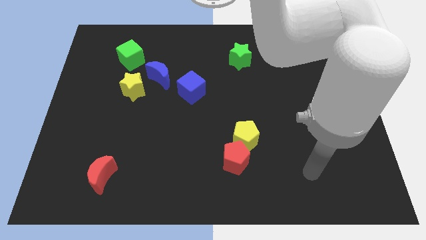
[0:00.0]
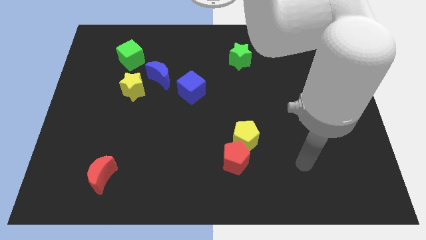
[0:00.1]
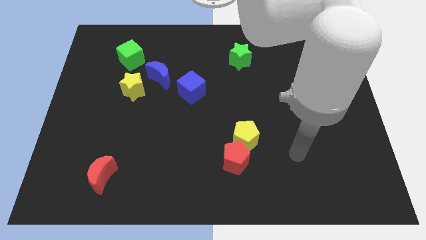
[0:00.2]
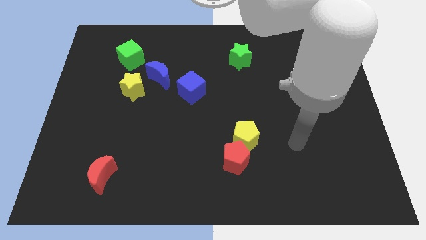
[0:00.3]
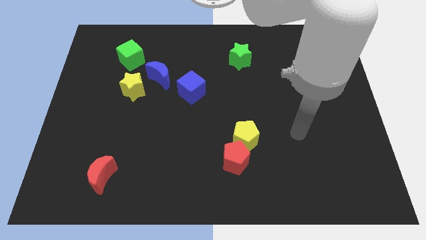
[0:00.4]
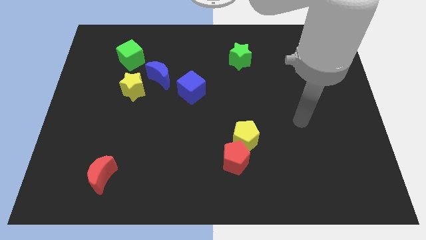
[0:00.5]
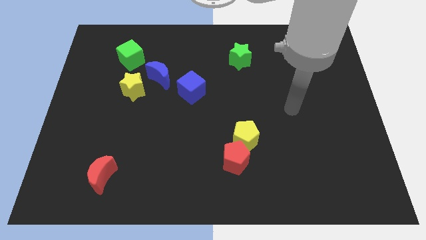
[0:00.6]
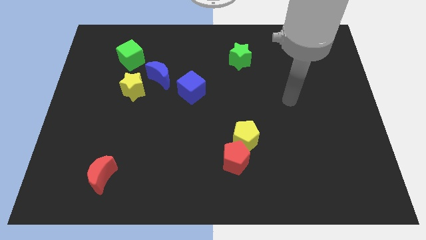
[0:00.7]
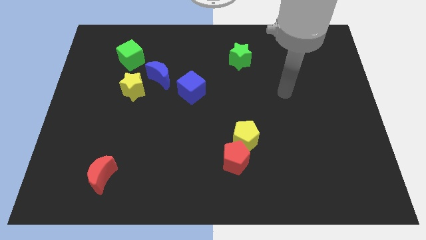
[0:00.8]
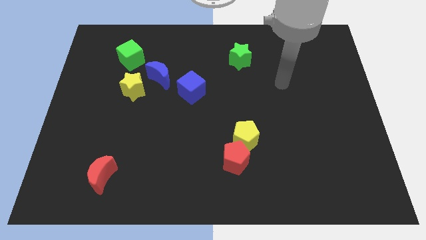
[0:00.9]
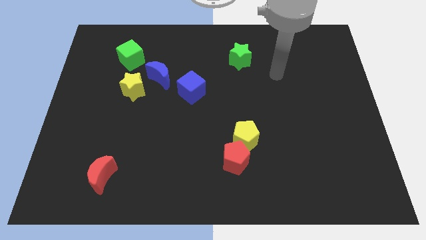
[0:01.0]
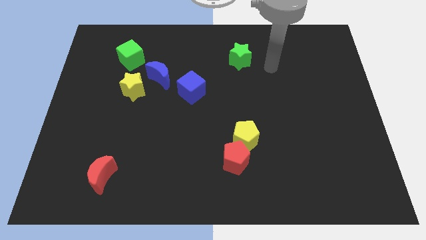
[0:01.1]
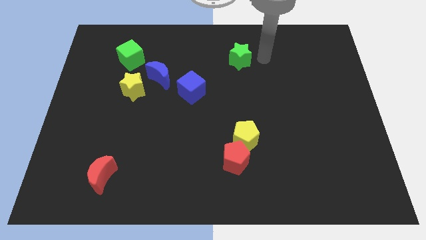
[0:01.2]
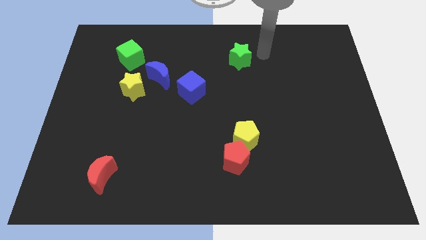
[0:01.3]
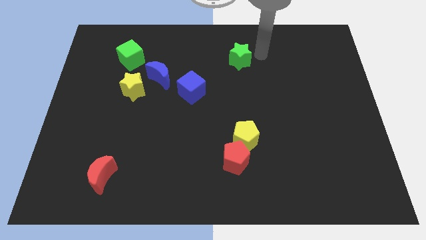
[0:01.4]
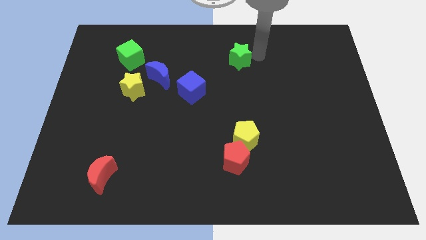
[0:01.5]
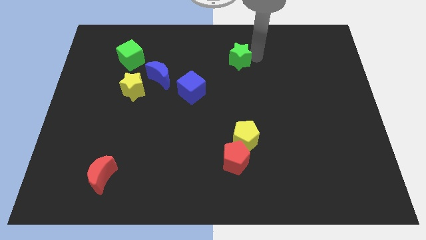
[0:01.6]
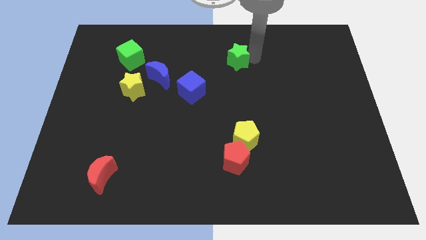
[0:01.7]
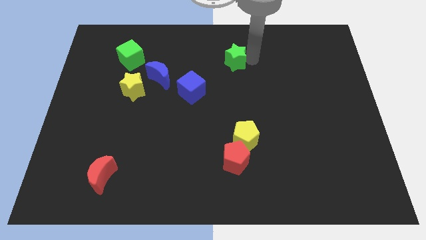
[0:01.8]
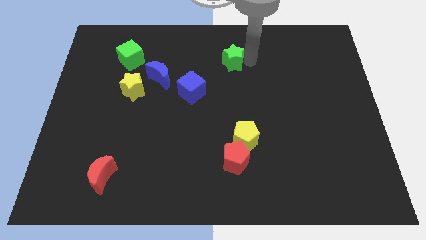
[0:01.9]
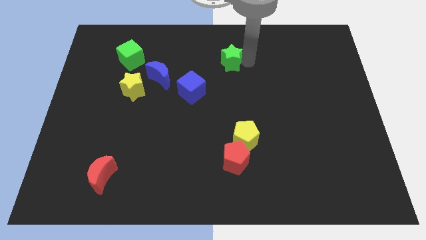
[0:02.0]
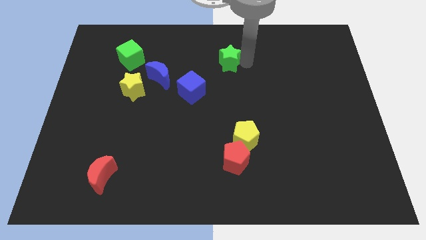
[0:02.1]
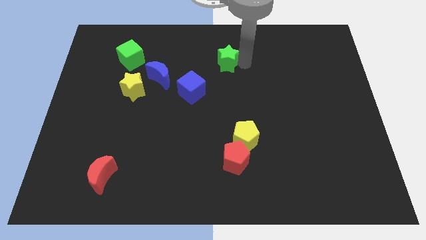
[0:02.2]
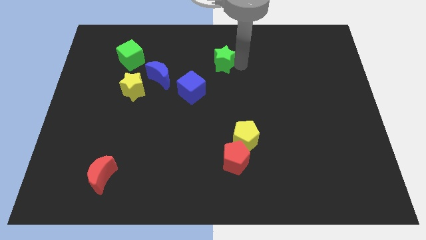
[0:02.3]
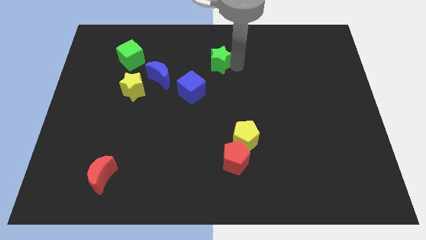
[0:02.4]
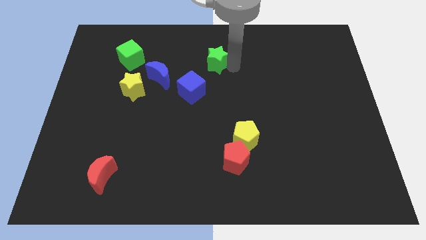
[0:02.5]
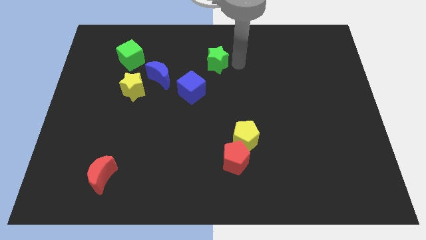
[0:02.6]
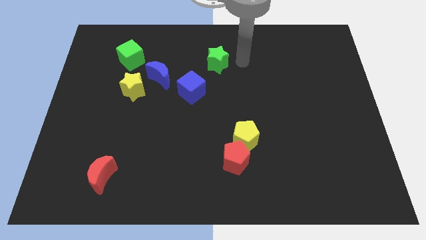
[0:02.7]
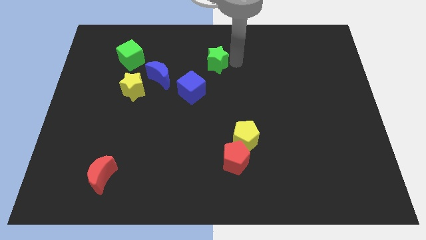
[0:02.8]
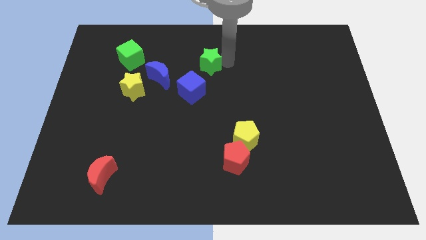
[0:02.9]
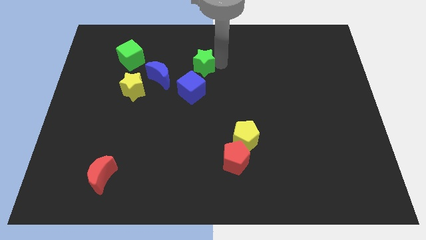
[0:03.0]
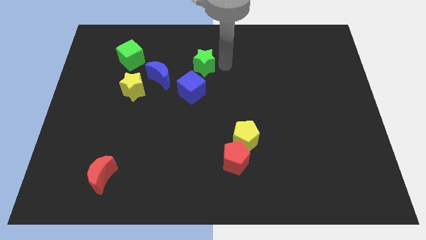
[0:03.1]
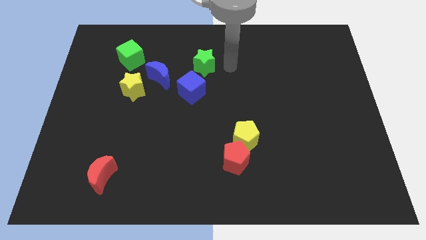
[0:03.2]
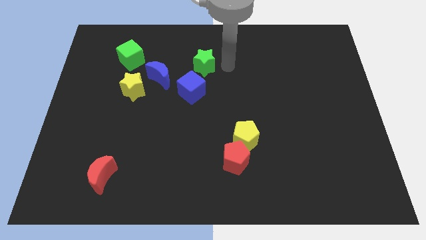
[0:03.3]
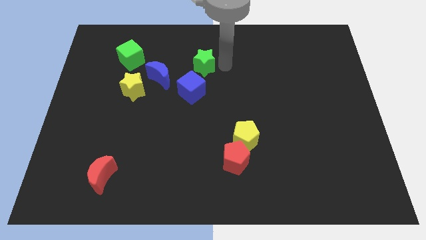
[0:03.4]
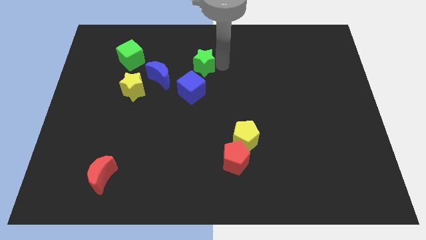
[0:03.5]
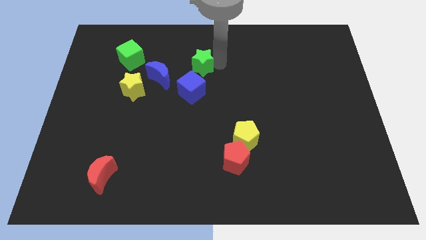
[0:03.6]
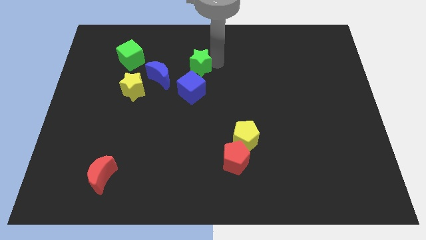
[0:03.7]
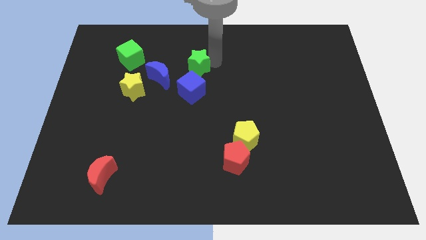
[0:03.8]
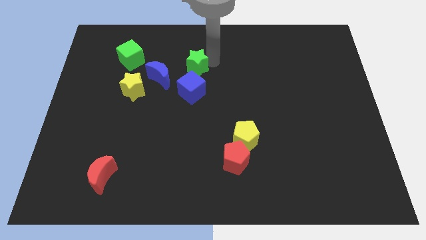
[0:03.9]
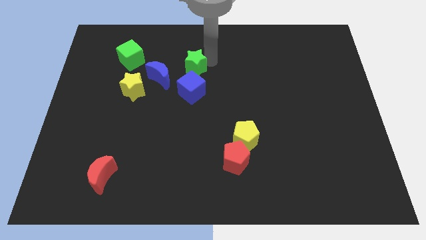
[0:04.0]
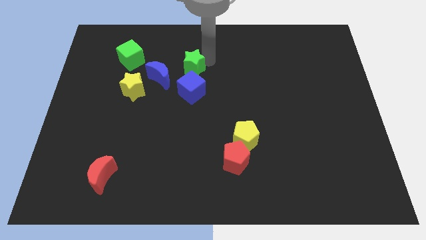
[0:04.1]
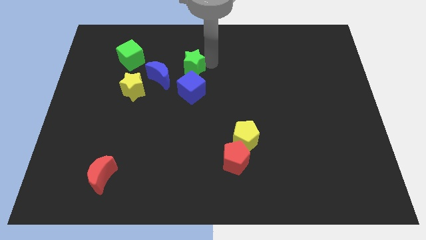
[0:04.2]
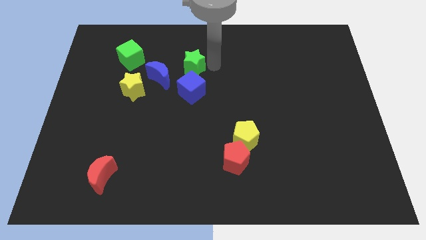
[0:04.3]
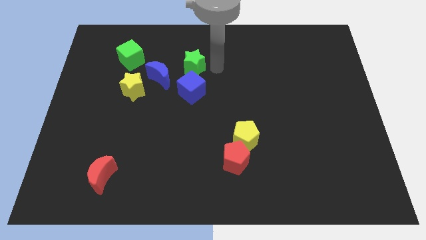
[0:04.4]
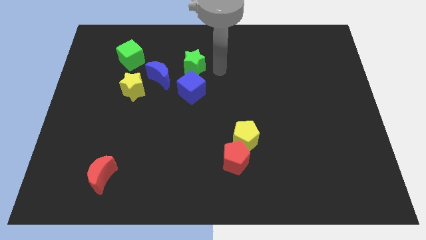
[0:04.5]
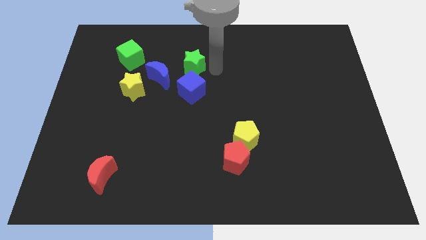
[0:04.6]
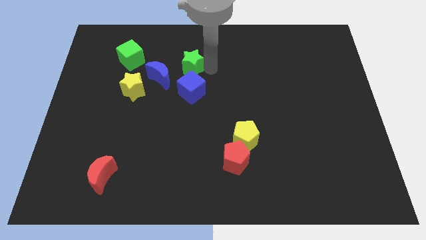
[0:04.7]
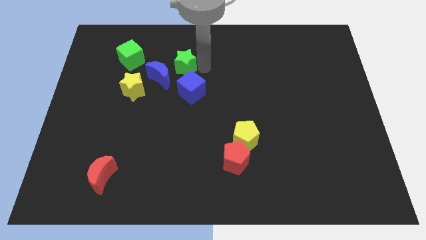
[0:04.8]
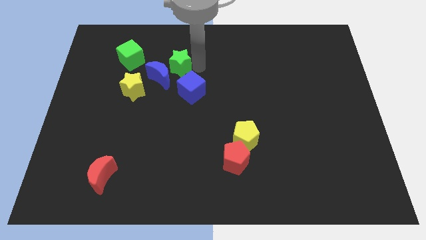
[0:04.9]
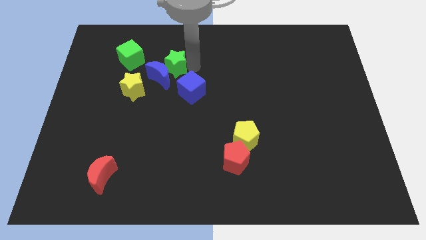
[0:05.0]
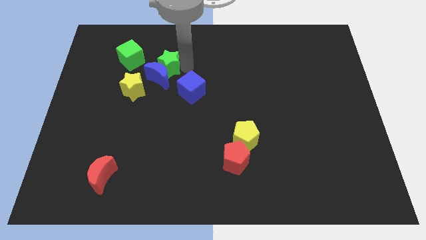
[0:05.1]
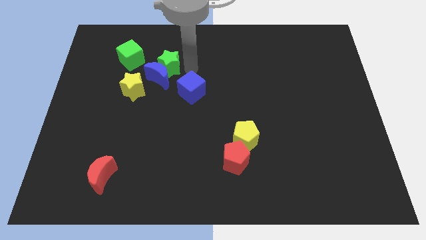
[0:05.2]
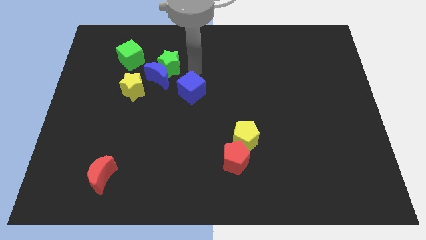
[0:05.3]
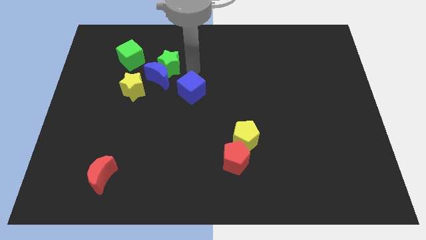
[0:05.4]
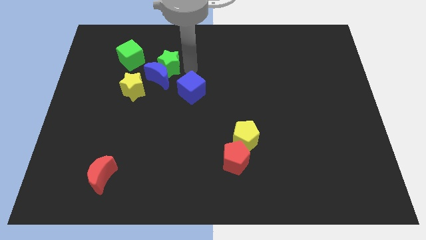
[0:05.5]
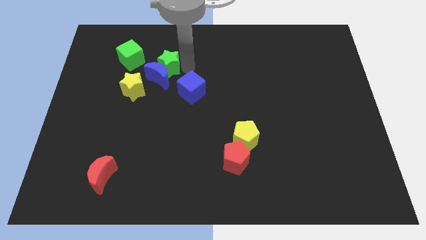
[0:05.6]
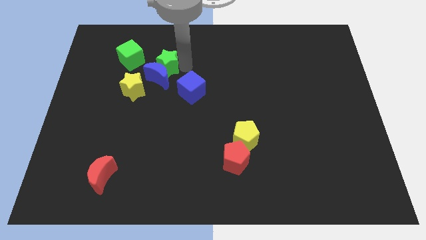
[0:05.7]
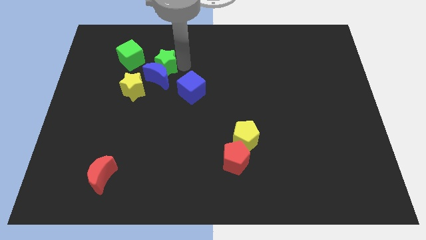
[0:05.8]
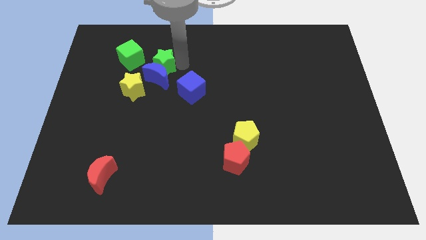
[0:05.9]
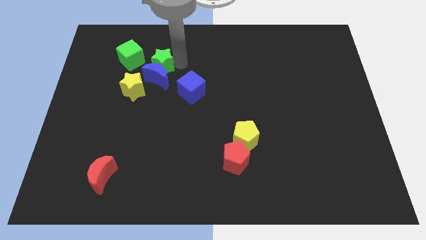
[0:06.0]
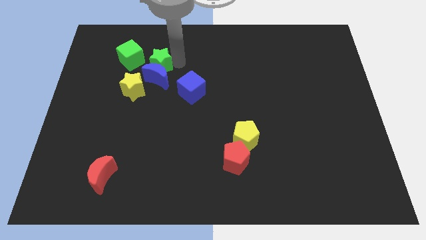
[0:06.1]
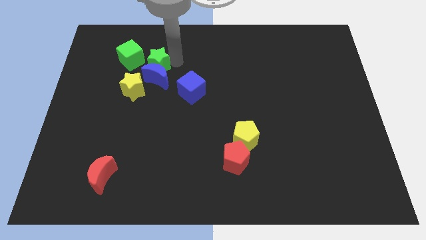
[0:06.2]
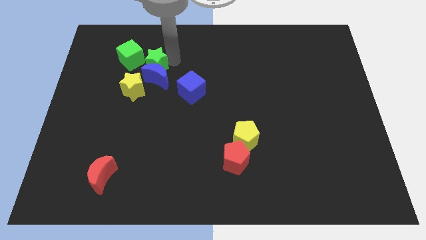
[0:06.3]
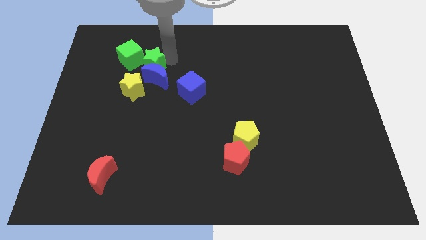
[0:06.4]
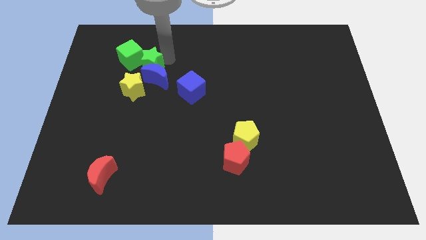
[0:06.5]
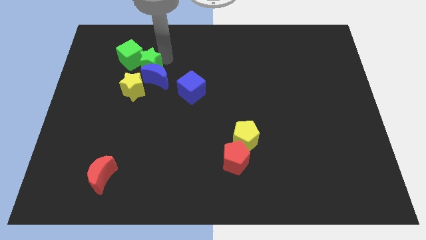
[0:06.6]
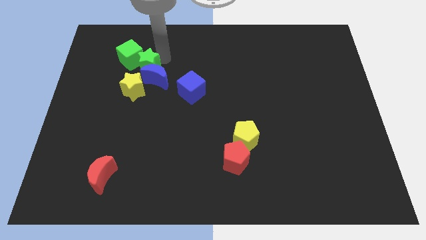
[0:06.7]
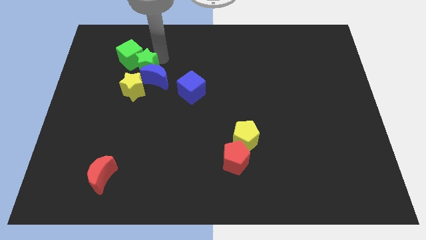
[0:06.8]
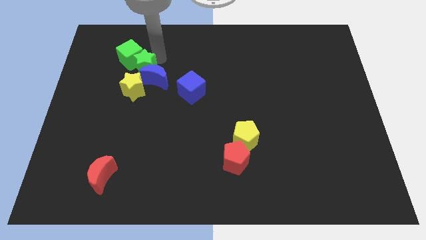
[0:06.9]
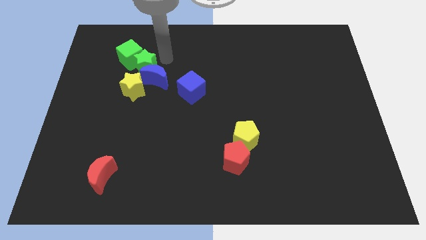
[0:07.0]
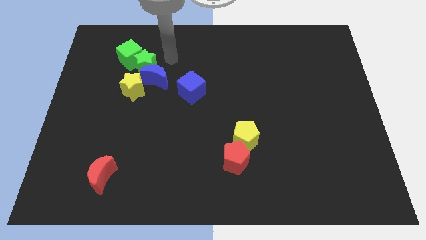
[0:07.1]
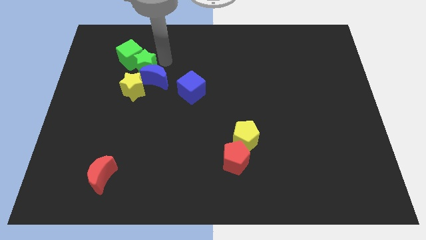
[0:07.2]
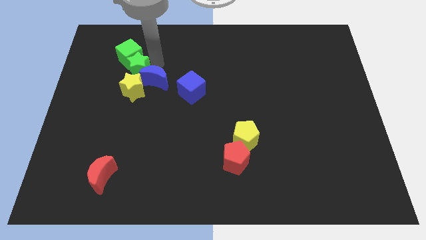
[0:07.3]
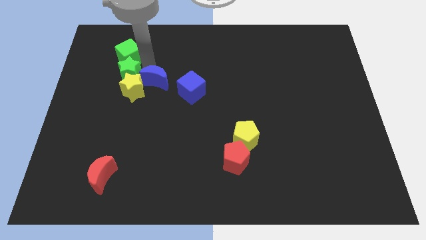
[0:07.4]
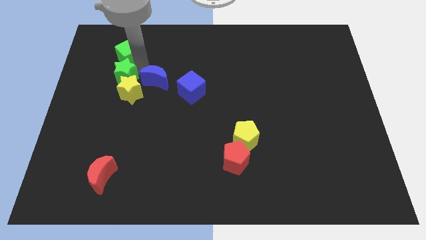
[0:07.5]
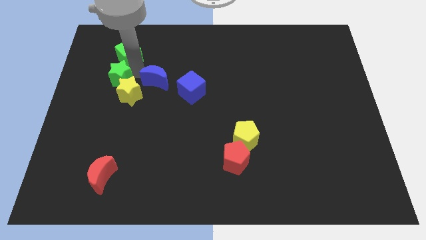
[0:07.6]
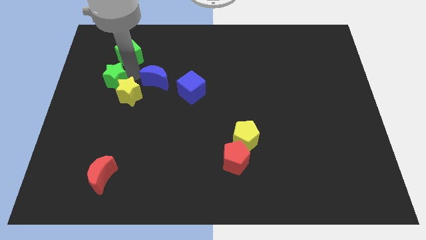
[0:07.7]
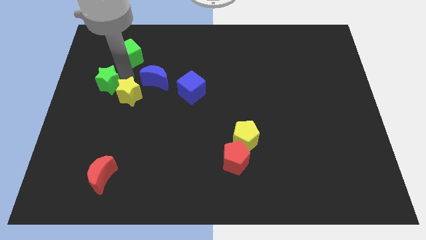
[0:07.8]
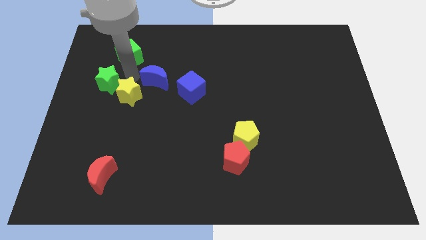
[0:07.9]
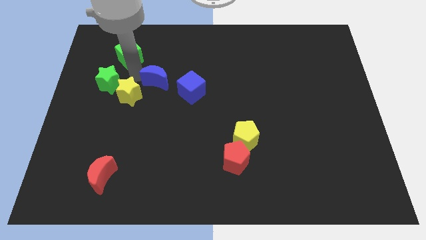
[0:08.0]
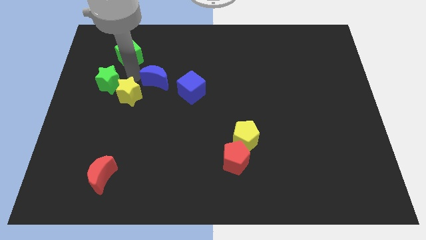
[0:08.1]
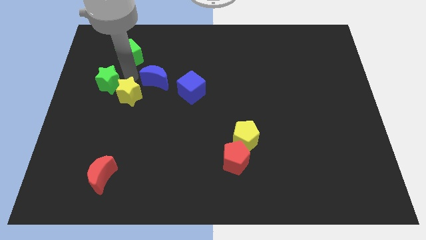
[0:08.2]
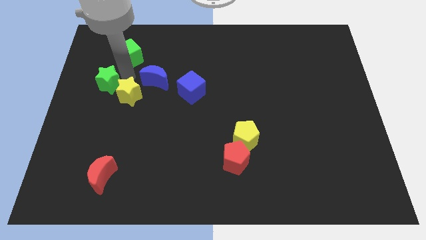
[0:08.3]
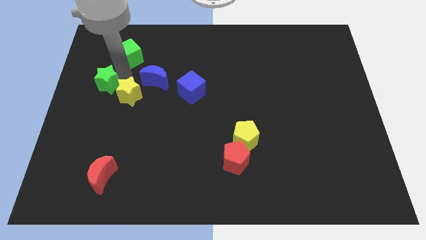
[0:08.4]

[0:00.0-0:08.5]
move the green star to the center left
